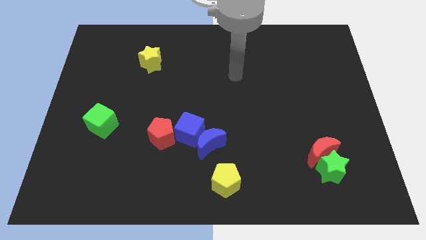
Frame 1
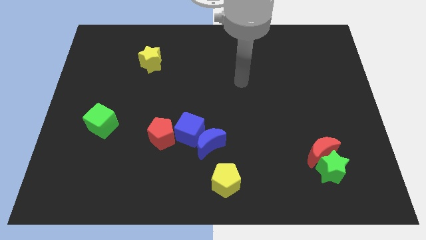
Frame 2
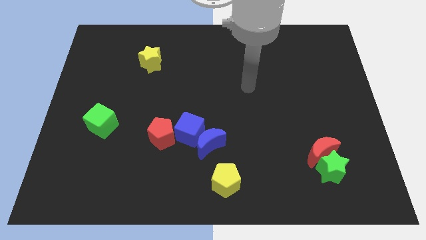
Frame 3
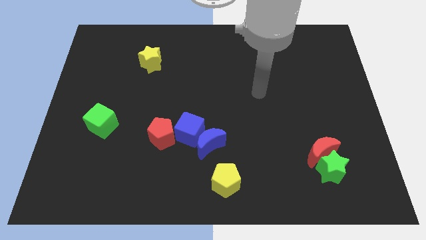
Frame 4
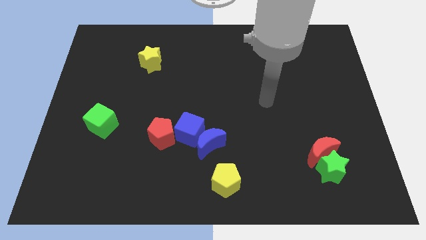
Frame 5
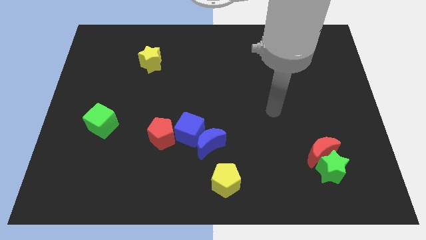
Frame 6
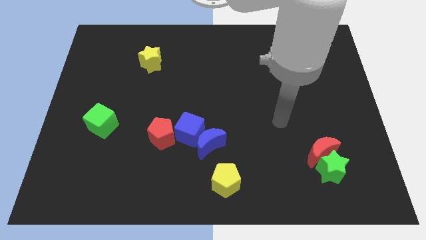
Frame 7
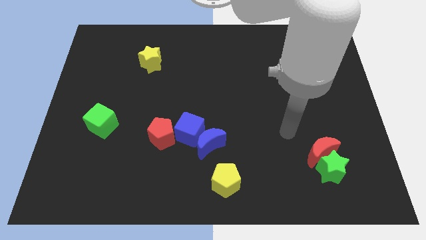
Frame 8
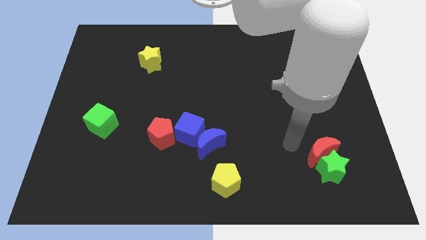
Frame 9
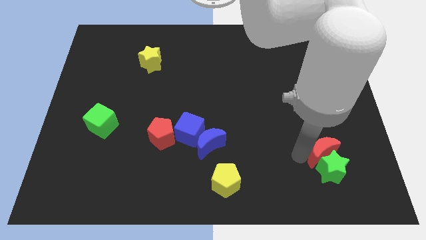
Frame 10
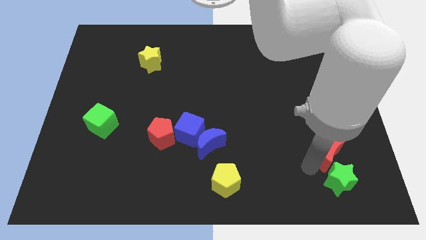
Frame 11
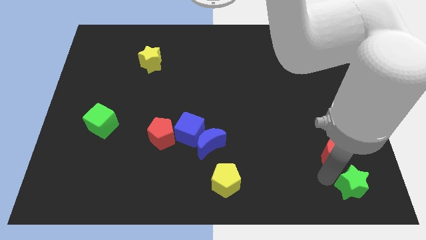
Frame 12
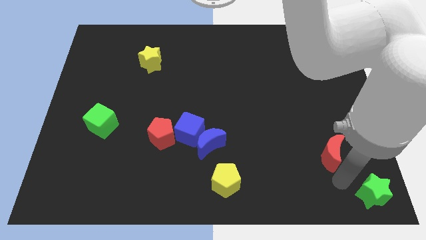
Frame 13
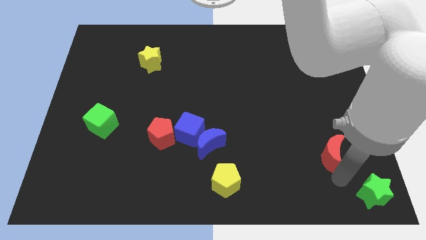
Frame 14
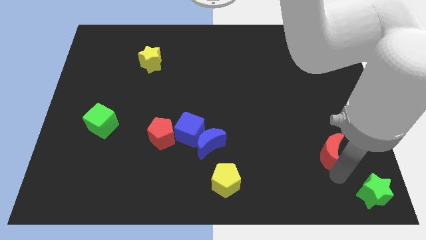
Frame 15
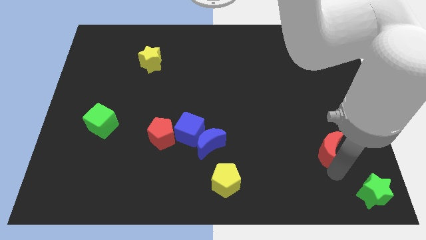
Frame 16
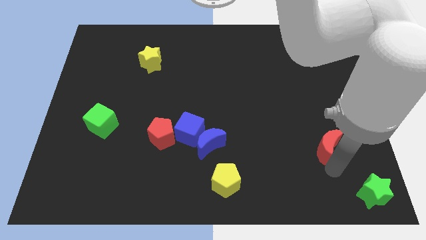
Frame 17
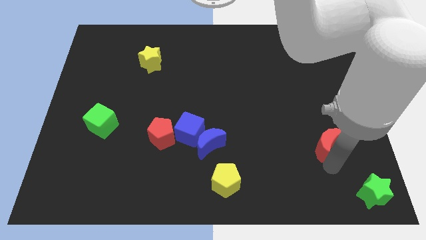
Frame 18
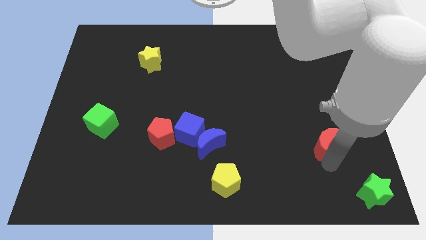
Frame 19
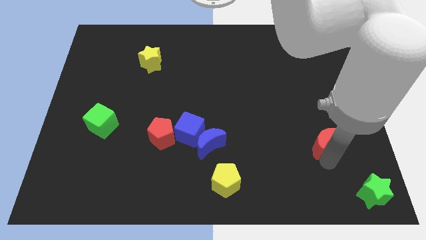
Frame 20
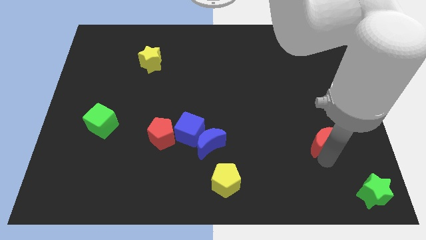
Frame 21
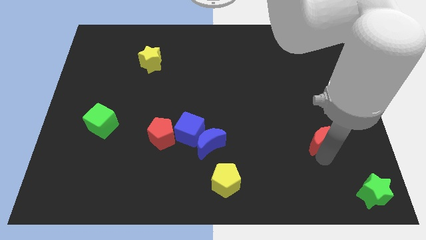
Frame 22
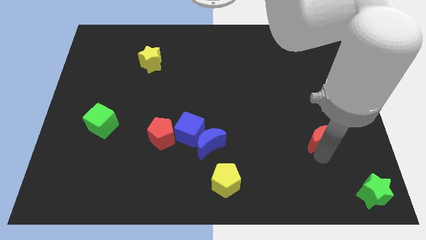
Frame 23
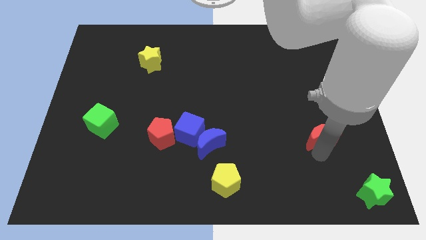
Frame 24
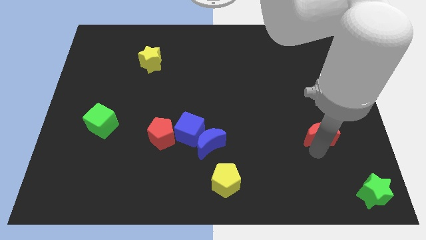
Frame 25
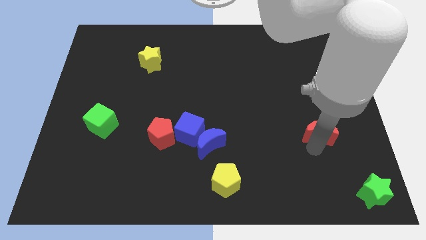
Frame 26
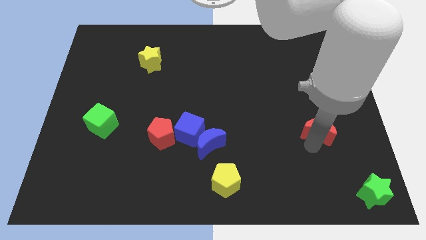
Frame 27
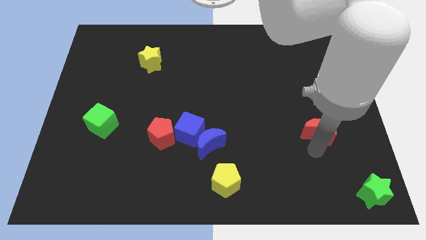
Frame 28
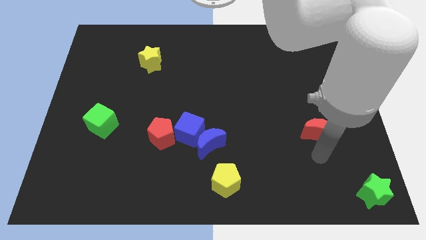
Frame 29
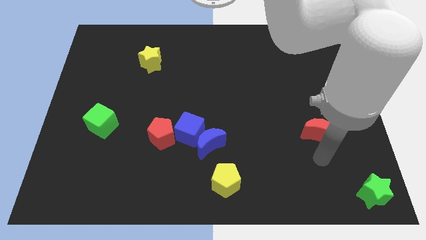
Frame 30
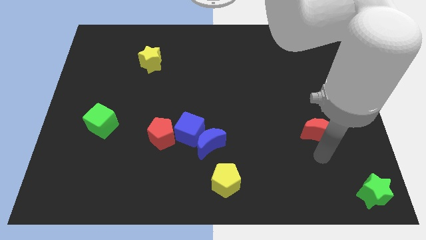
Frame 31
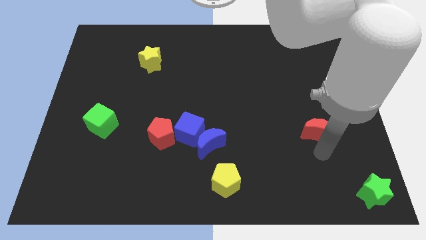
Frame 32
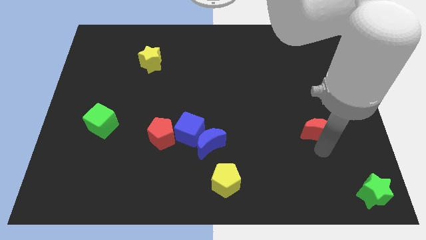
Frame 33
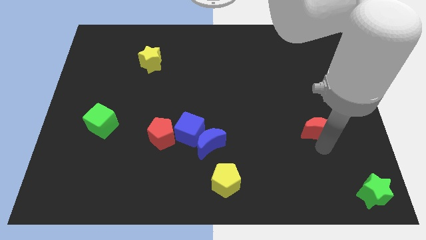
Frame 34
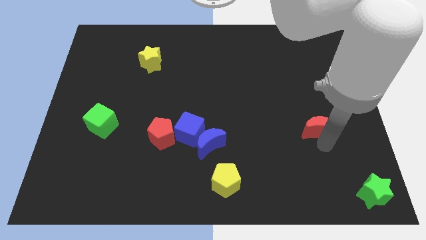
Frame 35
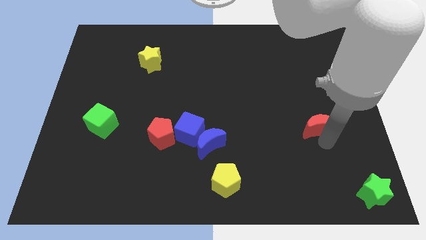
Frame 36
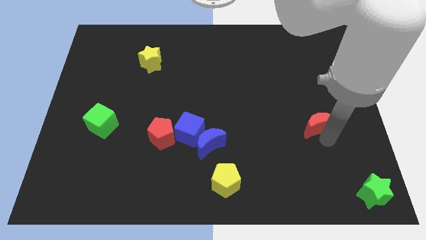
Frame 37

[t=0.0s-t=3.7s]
slide the red moon a little up

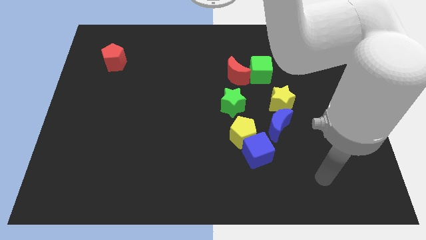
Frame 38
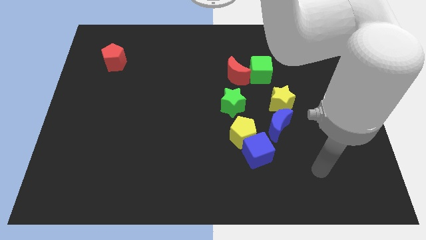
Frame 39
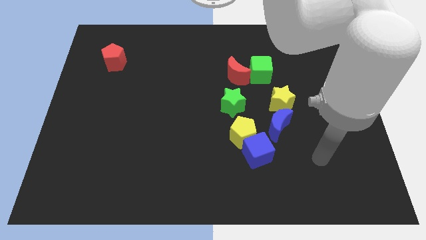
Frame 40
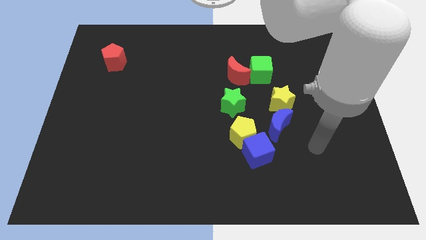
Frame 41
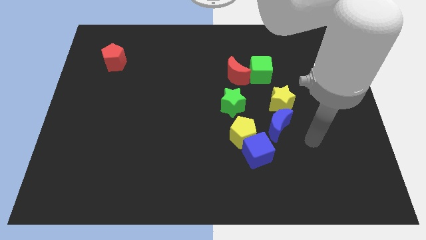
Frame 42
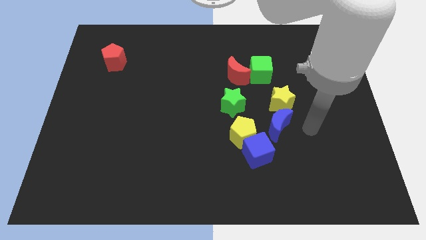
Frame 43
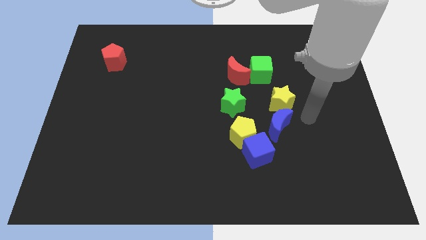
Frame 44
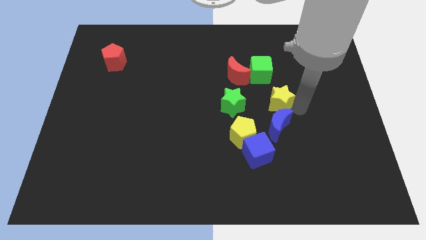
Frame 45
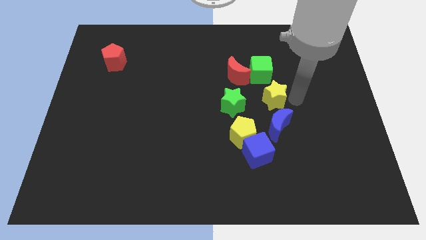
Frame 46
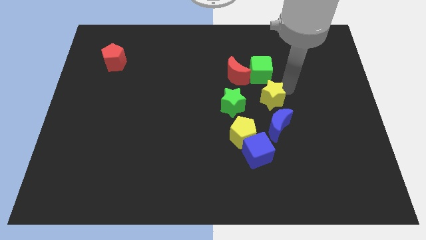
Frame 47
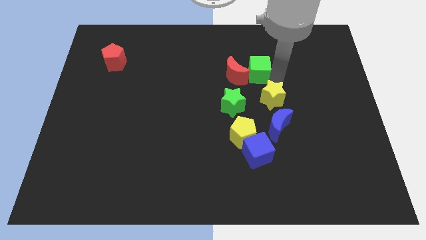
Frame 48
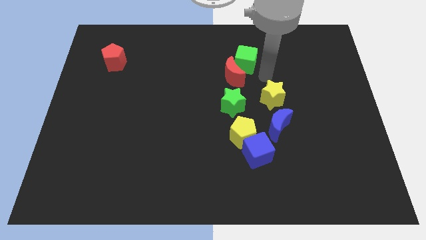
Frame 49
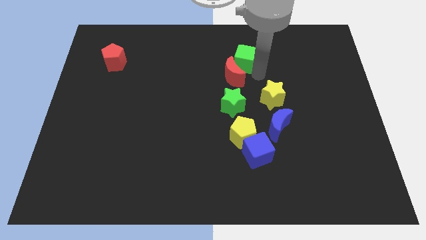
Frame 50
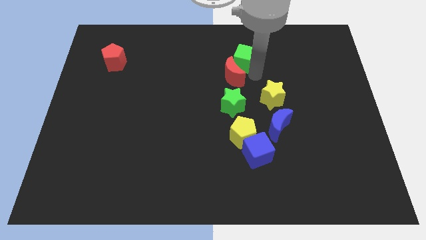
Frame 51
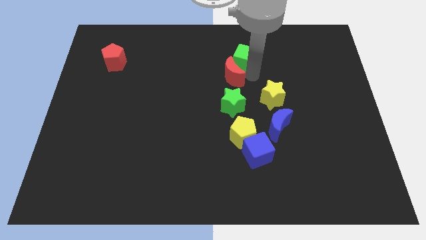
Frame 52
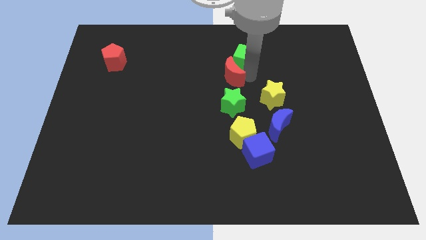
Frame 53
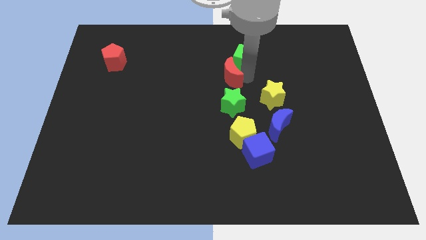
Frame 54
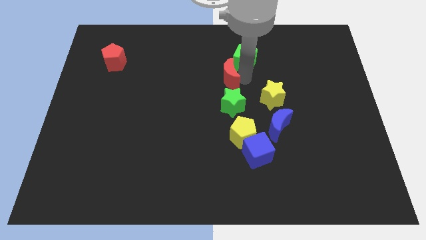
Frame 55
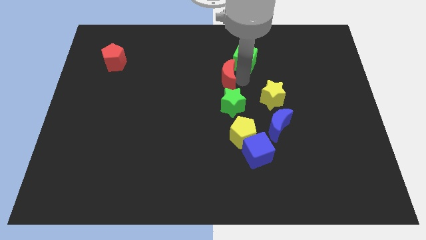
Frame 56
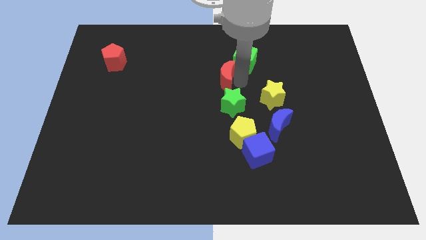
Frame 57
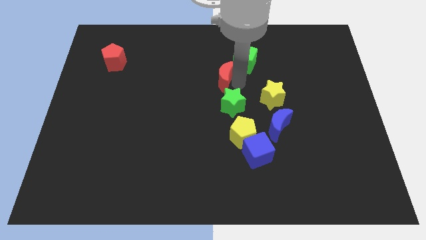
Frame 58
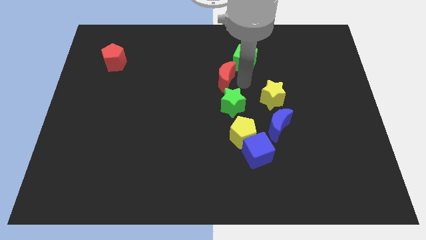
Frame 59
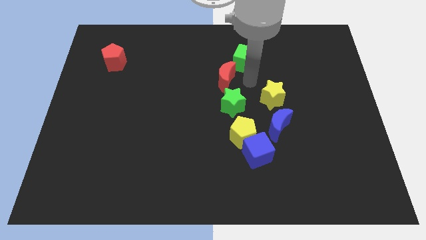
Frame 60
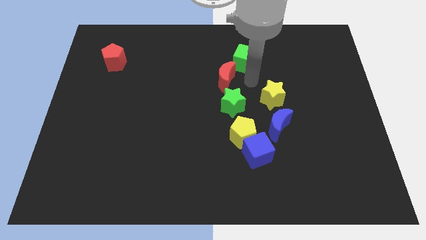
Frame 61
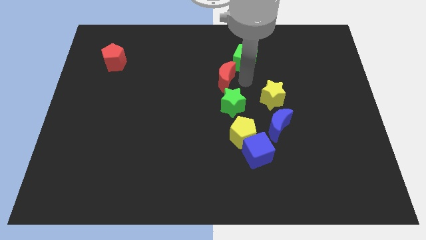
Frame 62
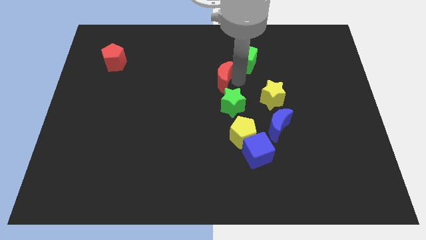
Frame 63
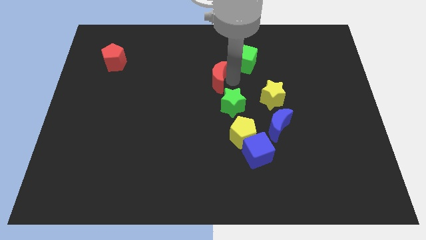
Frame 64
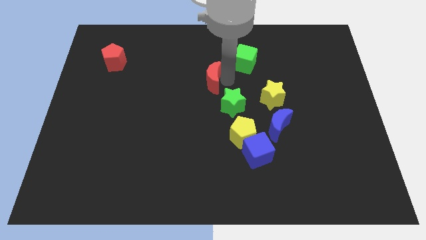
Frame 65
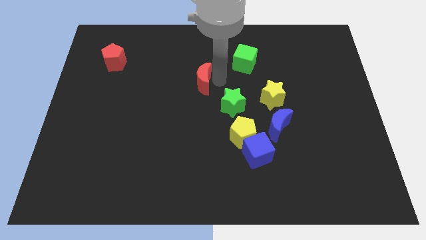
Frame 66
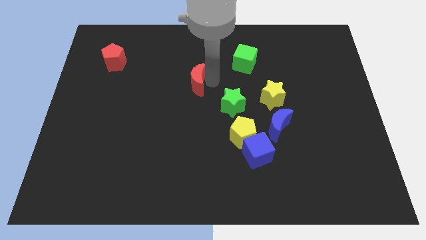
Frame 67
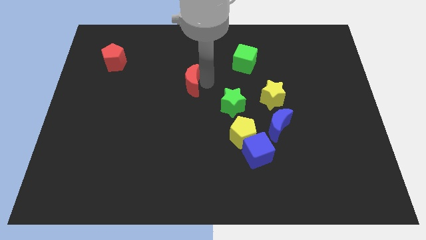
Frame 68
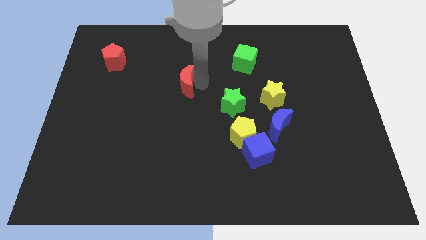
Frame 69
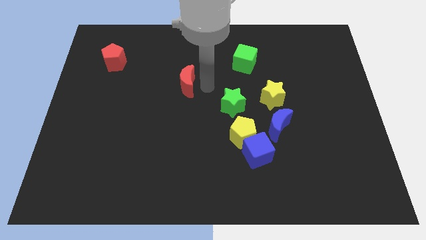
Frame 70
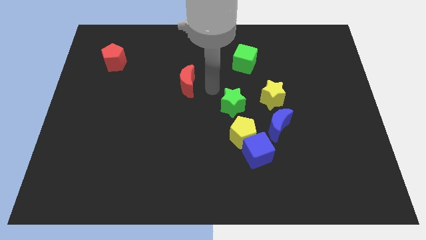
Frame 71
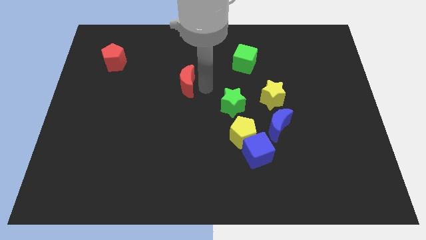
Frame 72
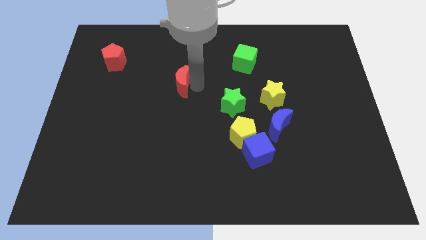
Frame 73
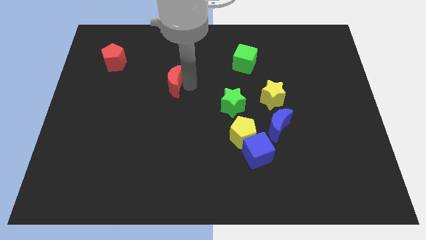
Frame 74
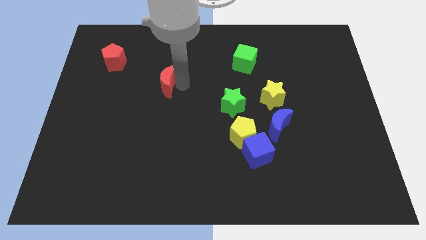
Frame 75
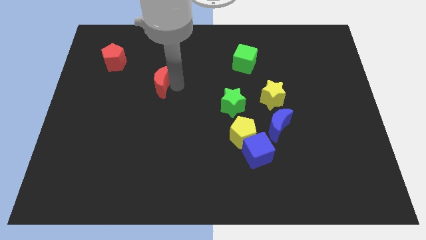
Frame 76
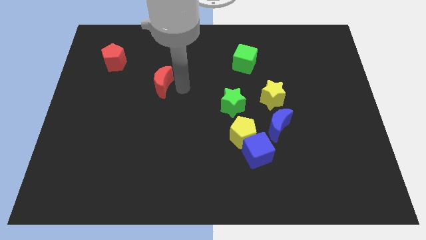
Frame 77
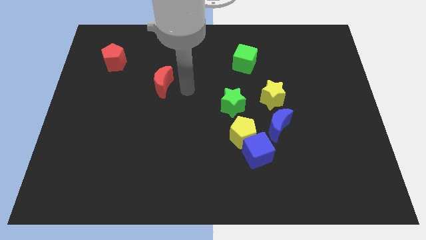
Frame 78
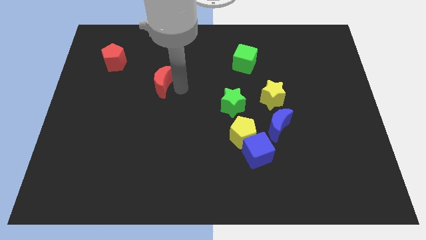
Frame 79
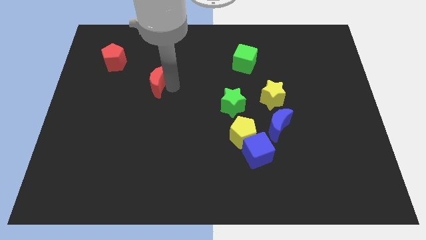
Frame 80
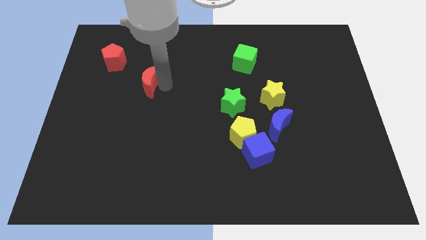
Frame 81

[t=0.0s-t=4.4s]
slide the red moon to the left
